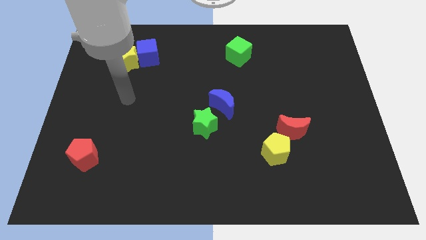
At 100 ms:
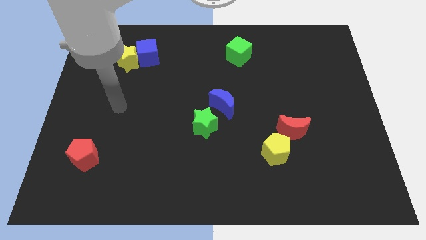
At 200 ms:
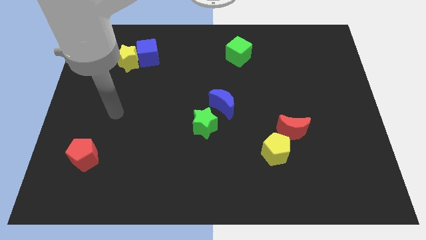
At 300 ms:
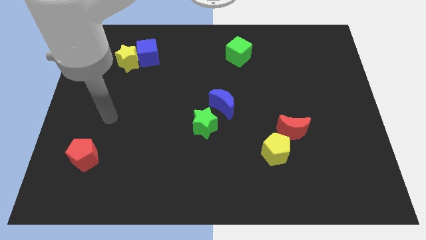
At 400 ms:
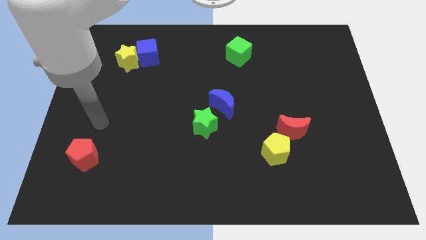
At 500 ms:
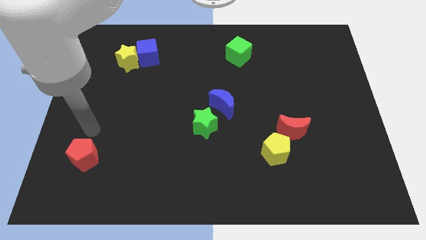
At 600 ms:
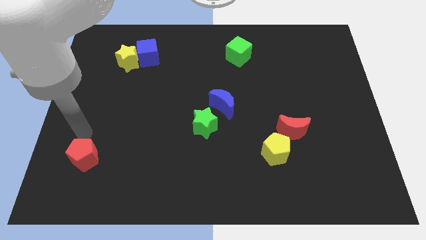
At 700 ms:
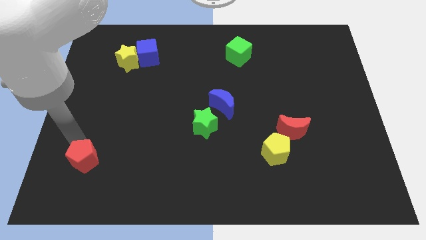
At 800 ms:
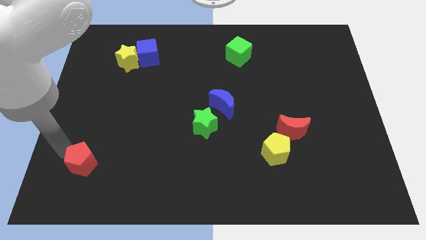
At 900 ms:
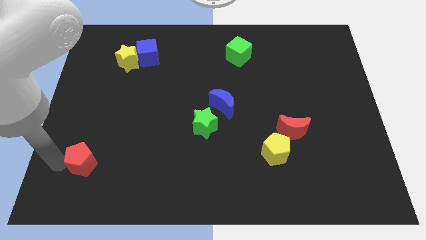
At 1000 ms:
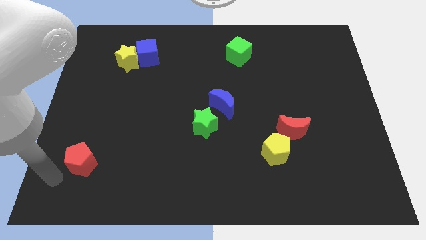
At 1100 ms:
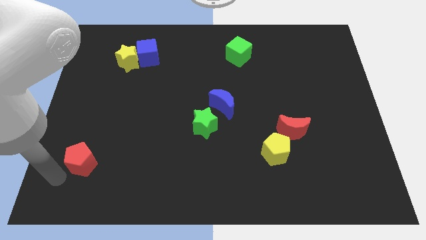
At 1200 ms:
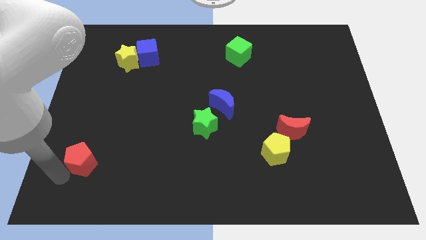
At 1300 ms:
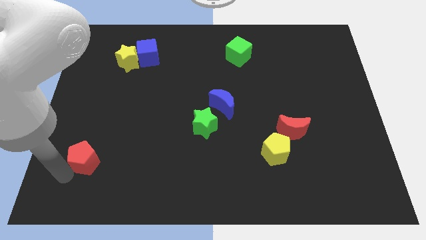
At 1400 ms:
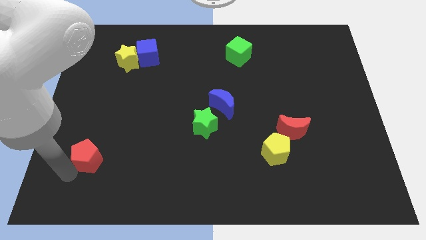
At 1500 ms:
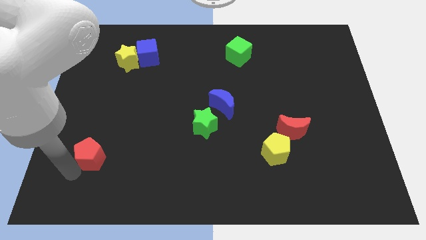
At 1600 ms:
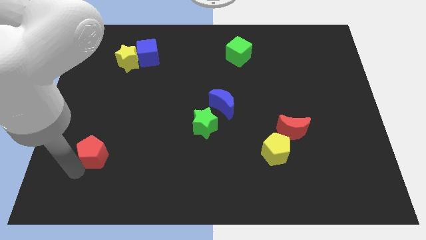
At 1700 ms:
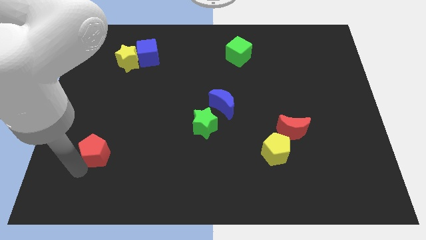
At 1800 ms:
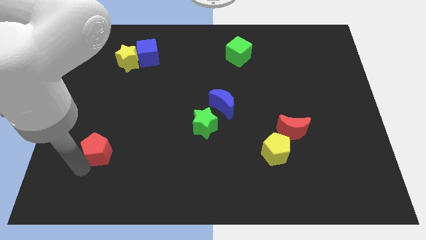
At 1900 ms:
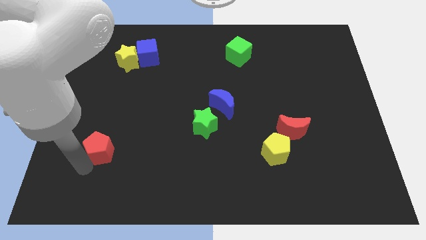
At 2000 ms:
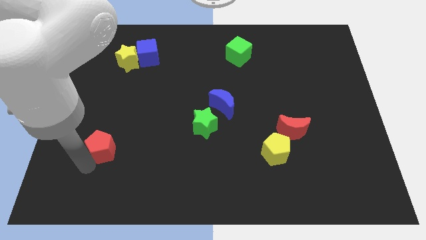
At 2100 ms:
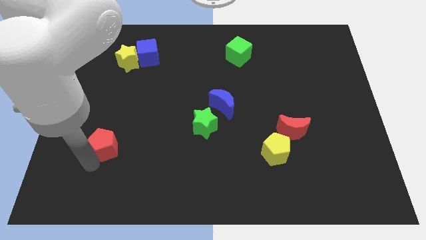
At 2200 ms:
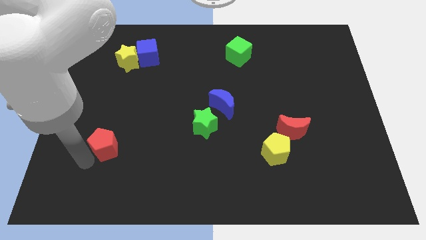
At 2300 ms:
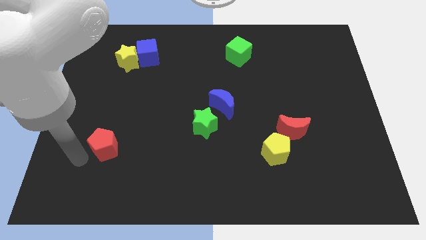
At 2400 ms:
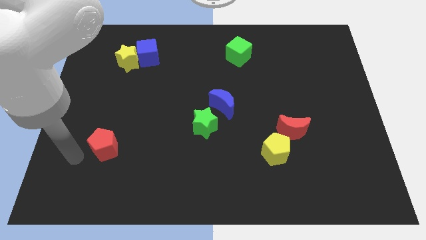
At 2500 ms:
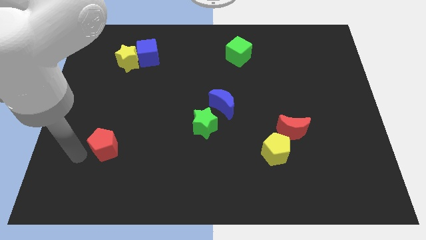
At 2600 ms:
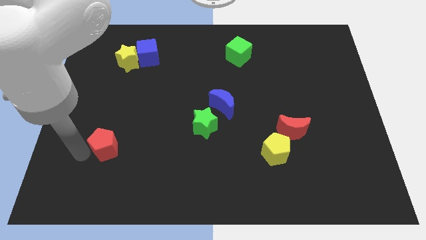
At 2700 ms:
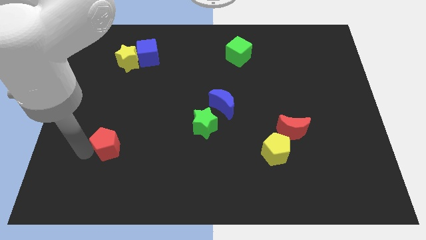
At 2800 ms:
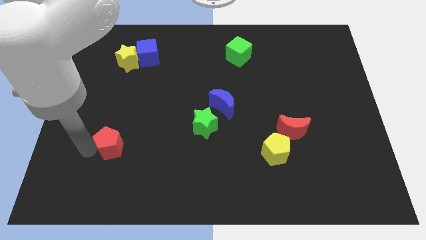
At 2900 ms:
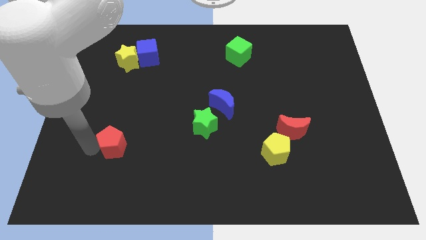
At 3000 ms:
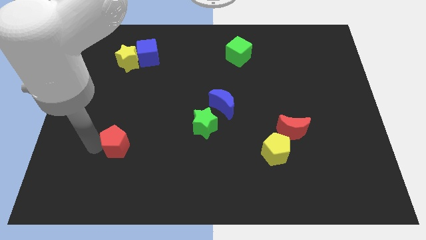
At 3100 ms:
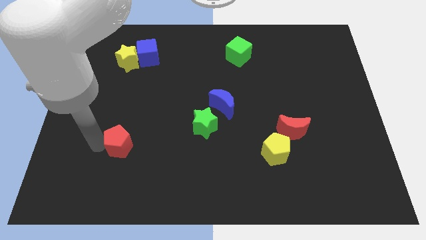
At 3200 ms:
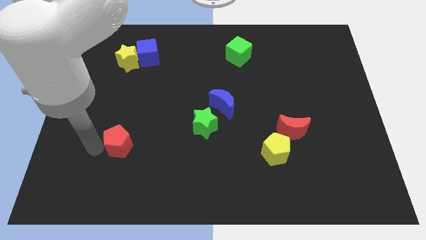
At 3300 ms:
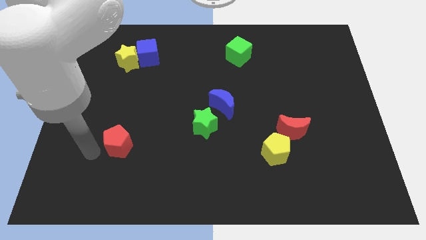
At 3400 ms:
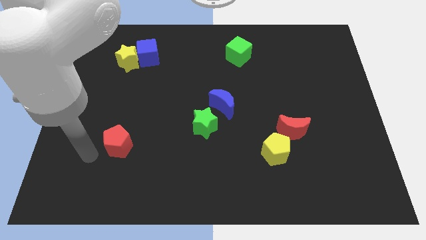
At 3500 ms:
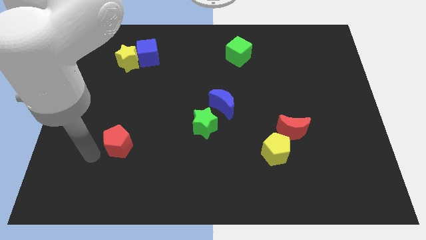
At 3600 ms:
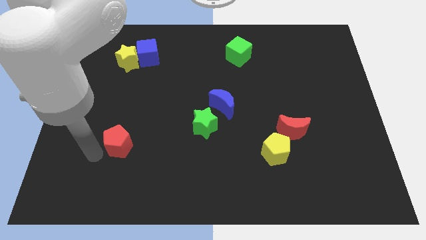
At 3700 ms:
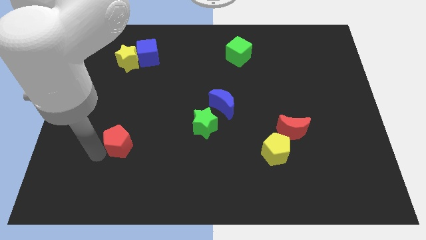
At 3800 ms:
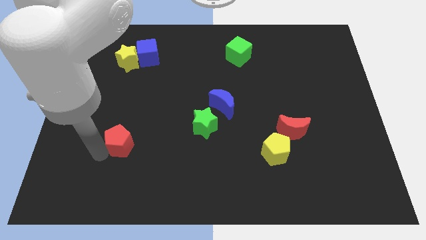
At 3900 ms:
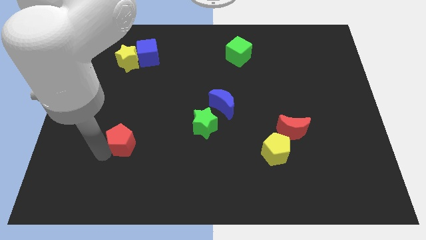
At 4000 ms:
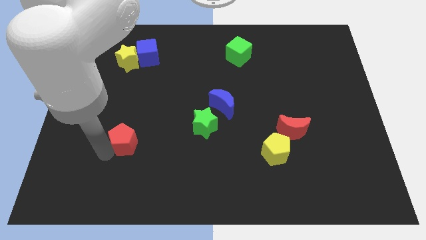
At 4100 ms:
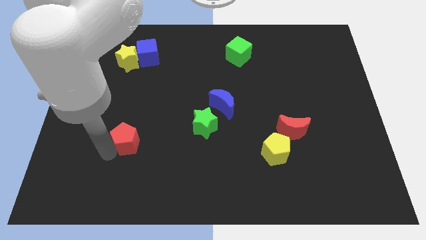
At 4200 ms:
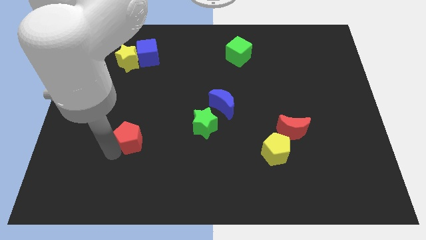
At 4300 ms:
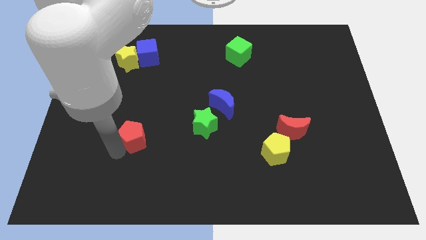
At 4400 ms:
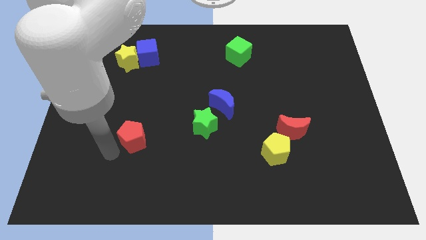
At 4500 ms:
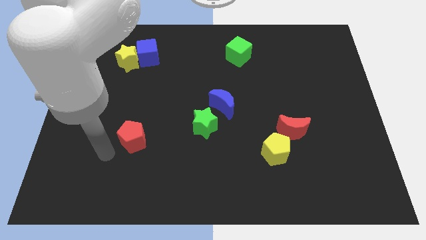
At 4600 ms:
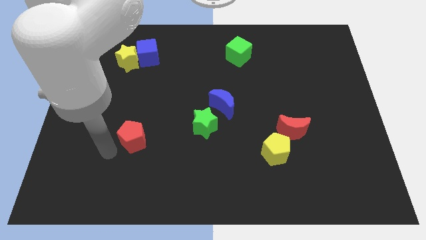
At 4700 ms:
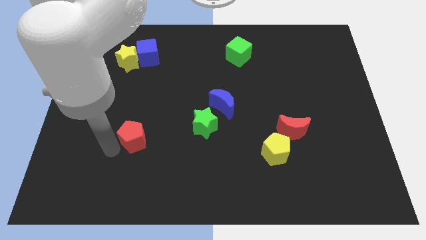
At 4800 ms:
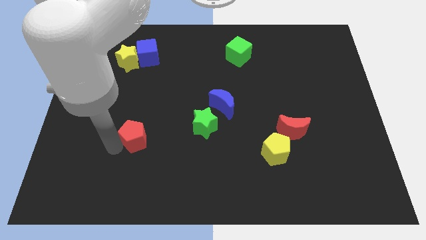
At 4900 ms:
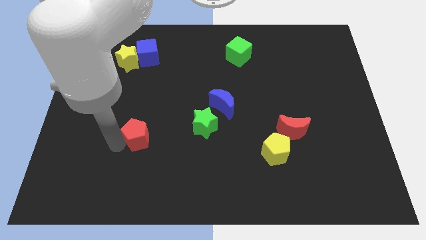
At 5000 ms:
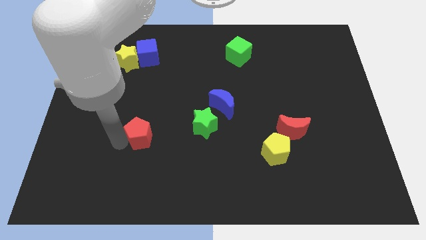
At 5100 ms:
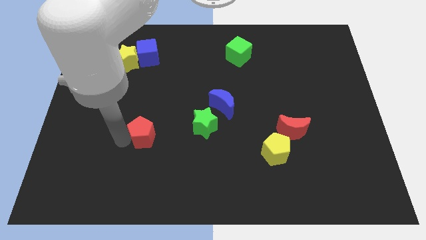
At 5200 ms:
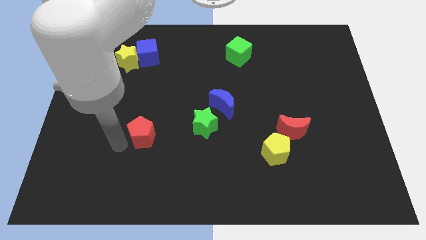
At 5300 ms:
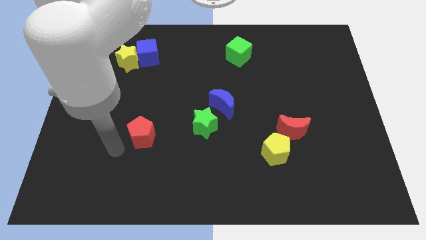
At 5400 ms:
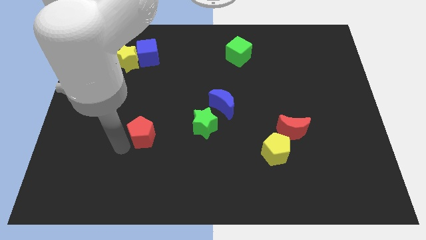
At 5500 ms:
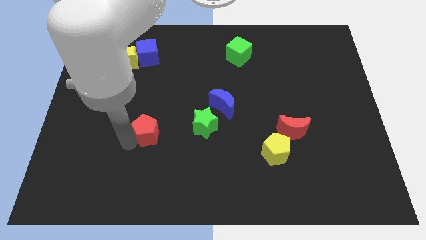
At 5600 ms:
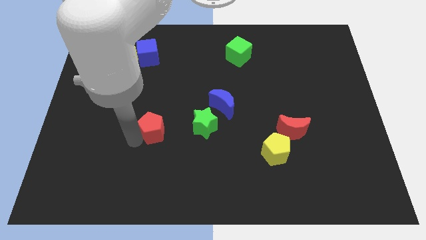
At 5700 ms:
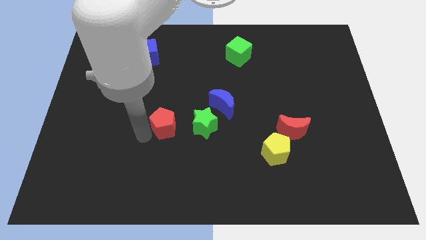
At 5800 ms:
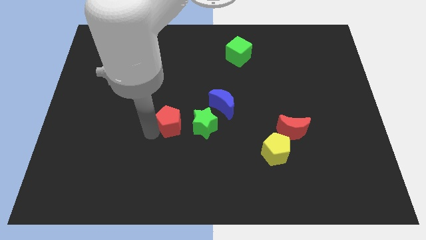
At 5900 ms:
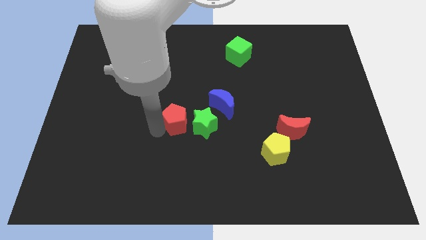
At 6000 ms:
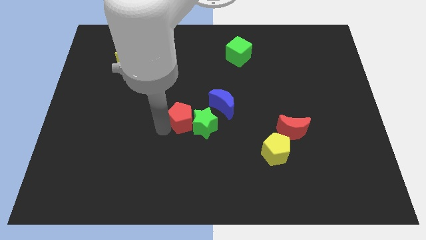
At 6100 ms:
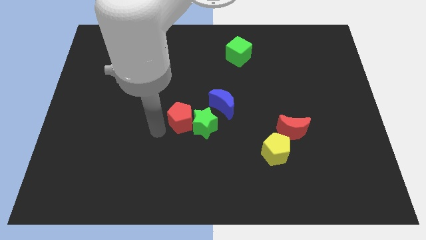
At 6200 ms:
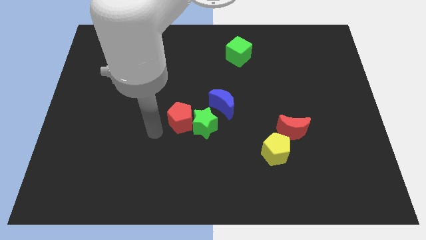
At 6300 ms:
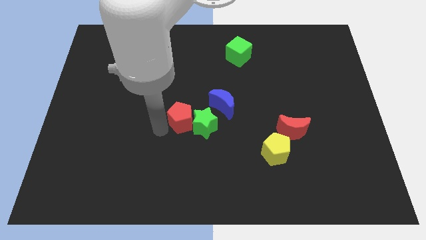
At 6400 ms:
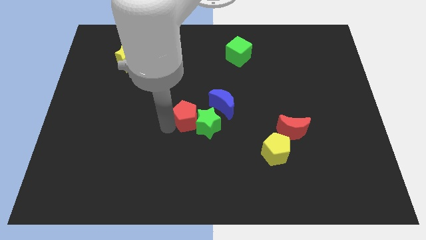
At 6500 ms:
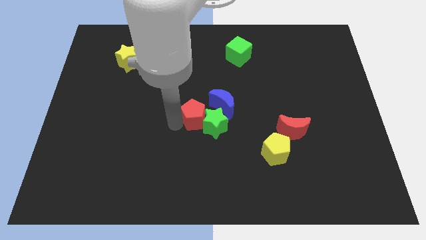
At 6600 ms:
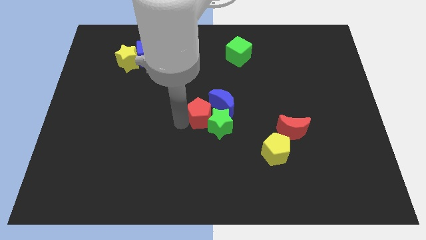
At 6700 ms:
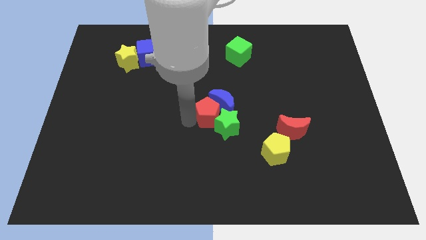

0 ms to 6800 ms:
put the red pentagon to the blue moon

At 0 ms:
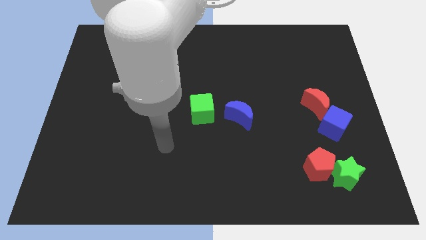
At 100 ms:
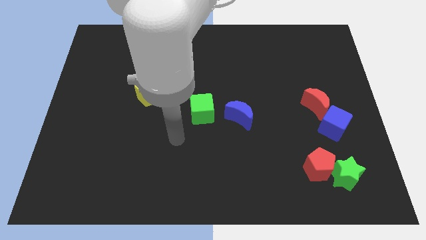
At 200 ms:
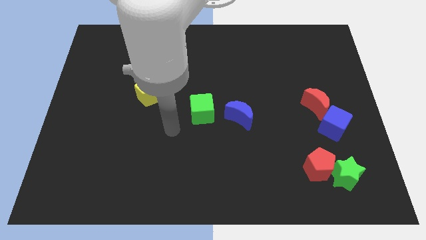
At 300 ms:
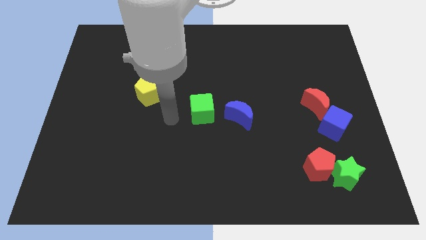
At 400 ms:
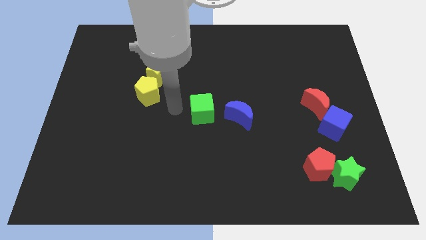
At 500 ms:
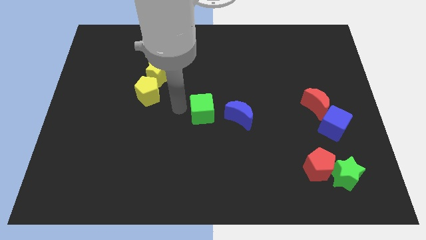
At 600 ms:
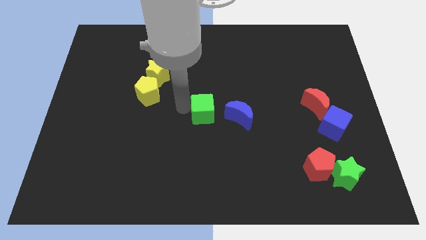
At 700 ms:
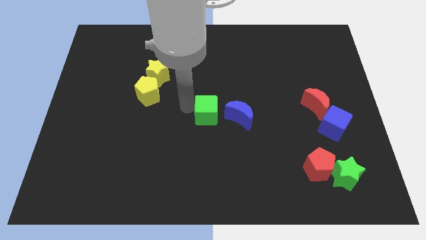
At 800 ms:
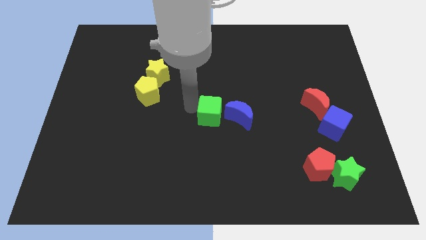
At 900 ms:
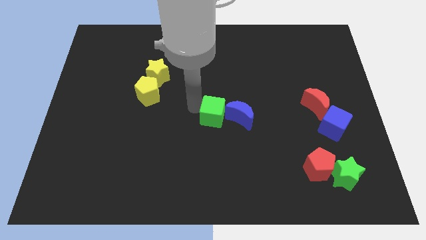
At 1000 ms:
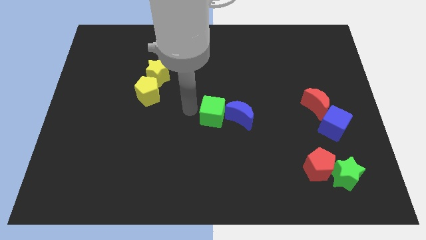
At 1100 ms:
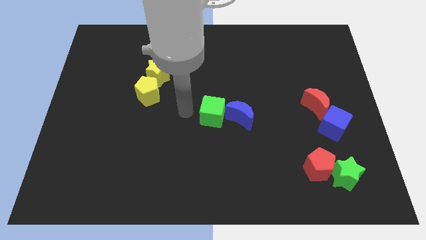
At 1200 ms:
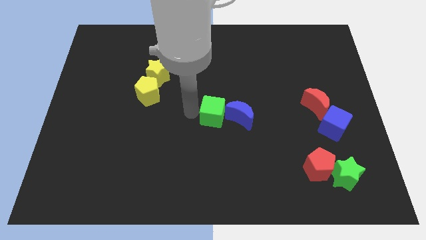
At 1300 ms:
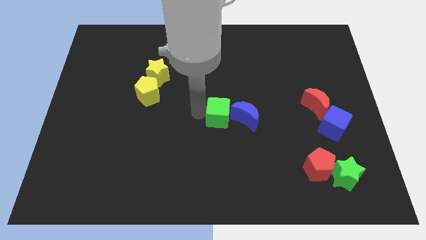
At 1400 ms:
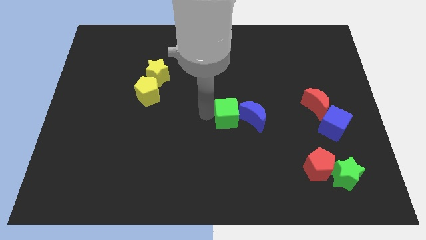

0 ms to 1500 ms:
slide the green cube to the blue moon
